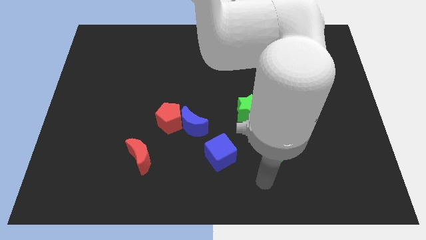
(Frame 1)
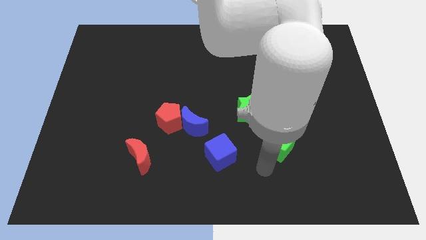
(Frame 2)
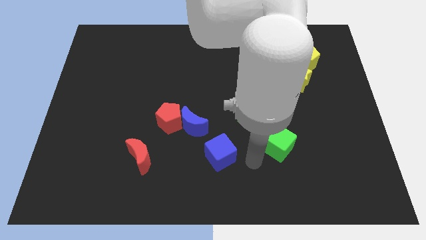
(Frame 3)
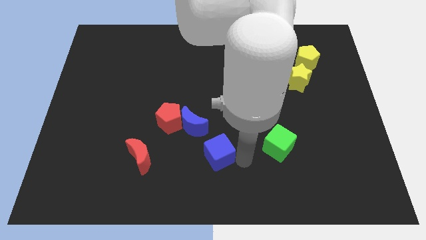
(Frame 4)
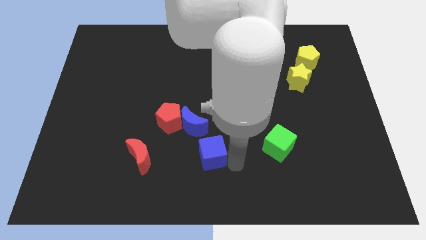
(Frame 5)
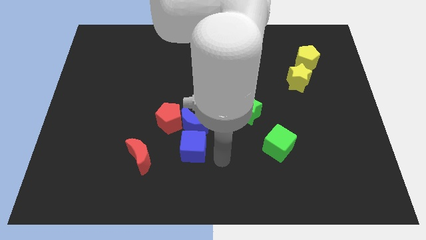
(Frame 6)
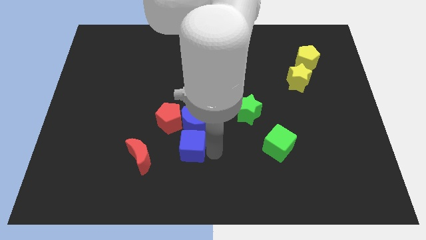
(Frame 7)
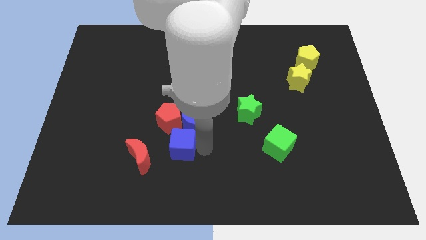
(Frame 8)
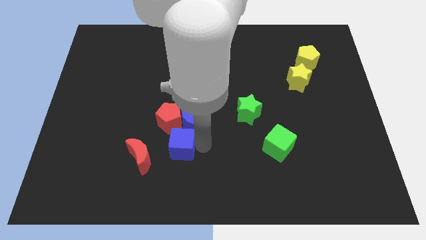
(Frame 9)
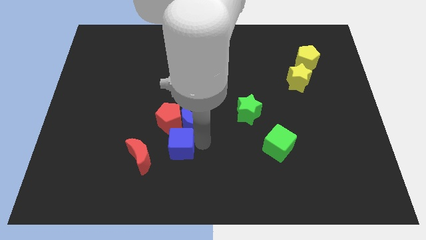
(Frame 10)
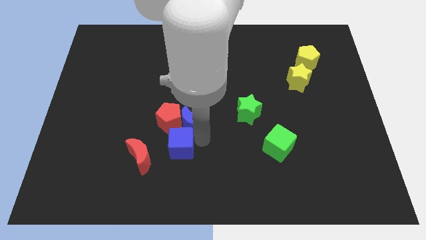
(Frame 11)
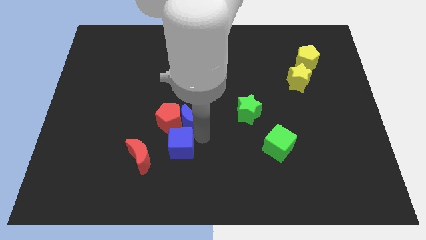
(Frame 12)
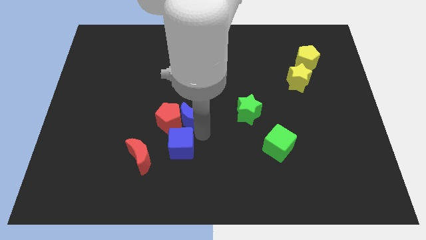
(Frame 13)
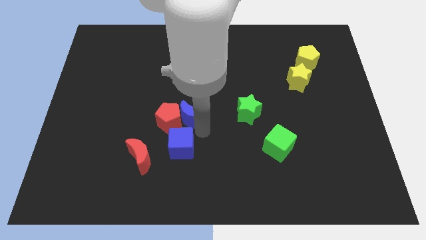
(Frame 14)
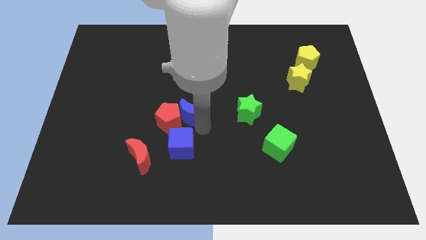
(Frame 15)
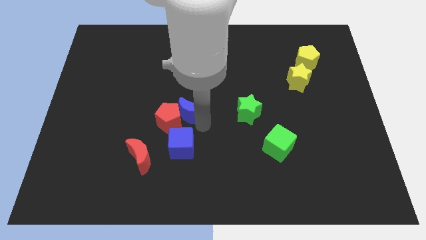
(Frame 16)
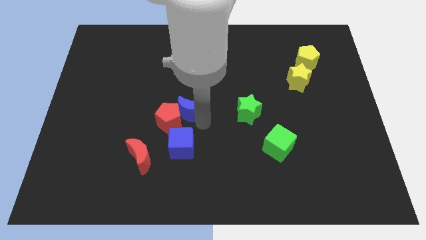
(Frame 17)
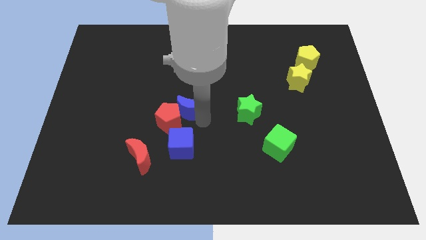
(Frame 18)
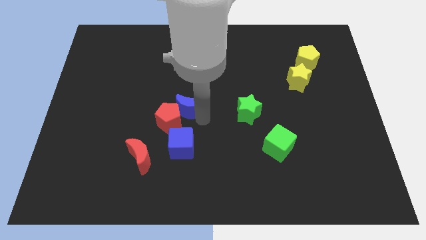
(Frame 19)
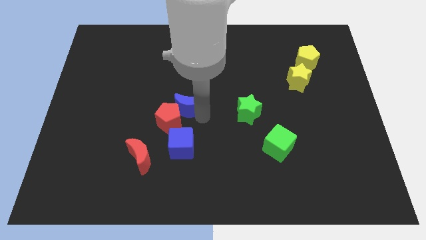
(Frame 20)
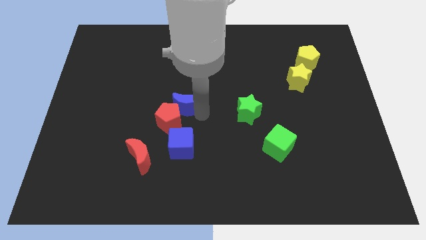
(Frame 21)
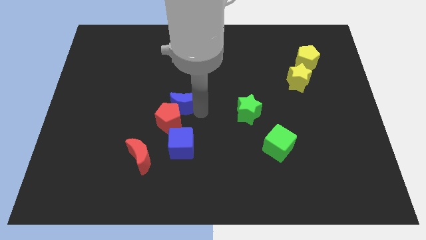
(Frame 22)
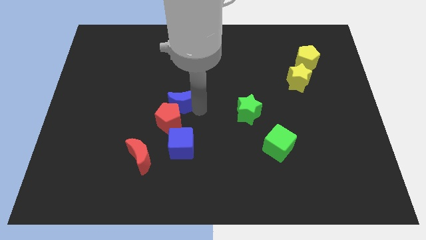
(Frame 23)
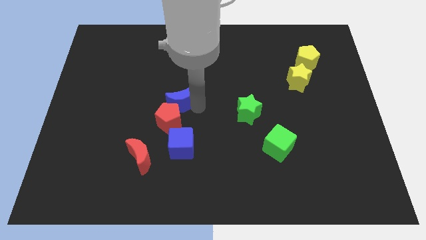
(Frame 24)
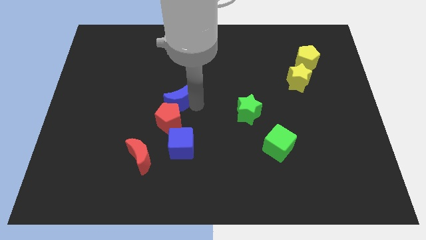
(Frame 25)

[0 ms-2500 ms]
move the blue moon upwards and then to the left a little

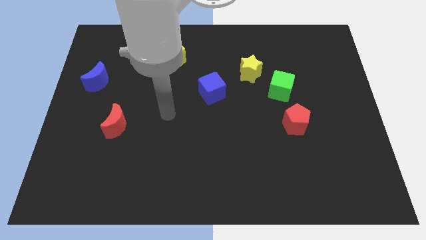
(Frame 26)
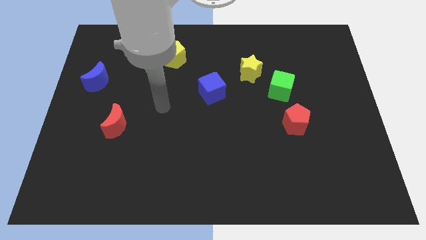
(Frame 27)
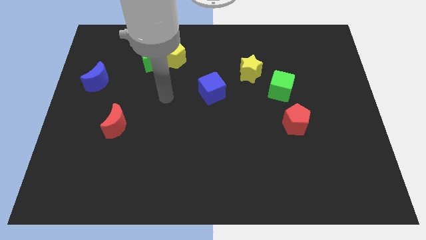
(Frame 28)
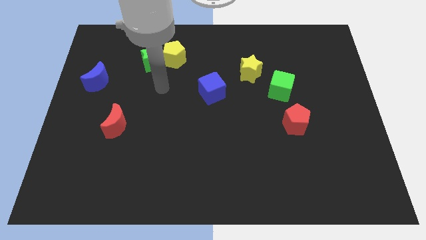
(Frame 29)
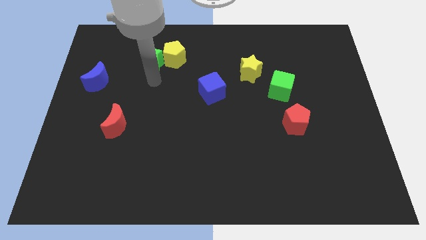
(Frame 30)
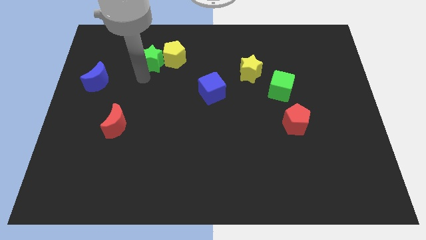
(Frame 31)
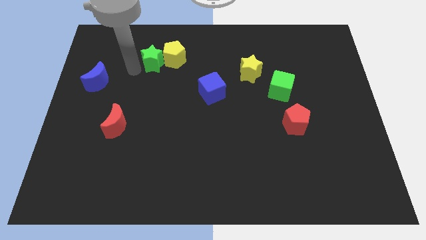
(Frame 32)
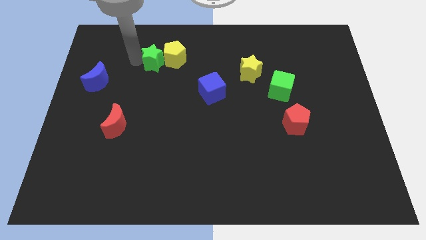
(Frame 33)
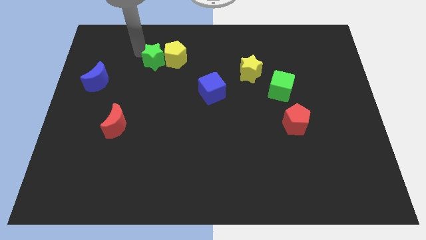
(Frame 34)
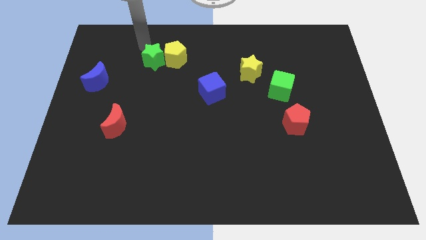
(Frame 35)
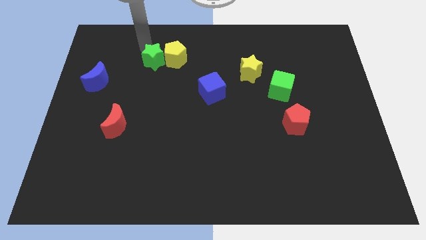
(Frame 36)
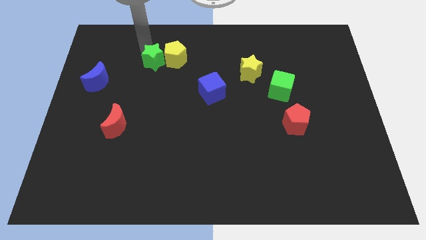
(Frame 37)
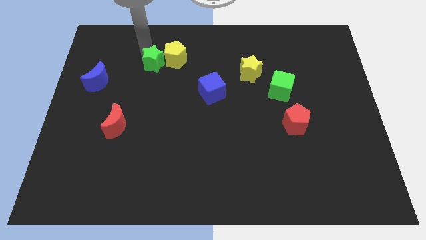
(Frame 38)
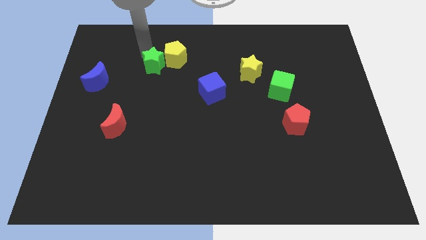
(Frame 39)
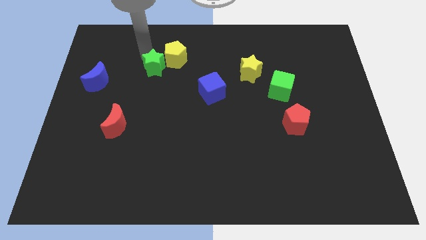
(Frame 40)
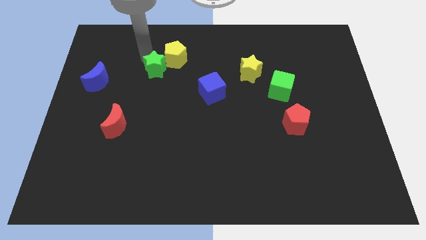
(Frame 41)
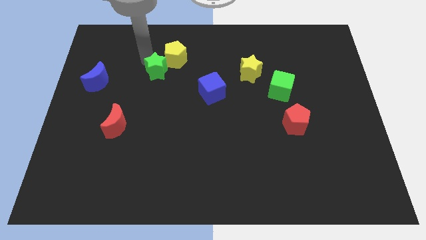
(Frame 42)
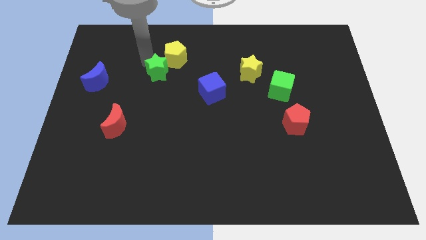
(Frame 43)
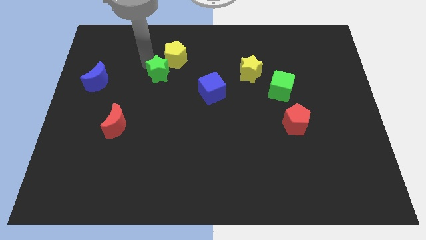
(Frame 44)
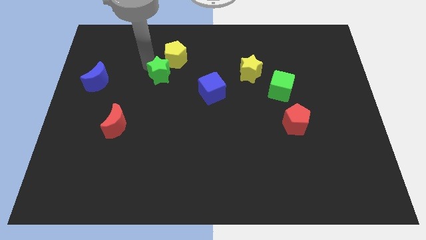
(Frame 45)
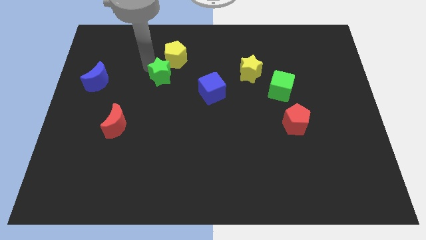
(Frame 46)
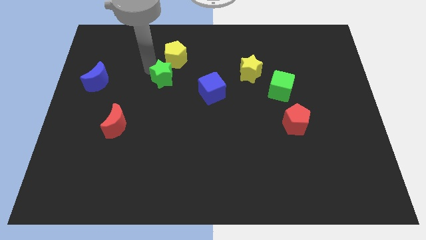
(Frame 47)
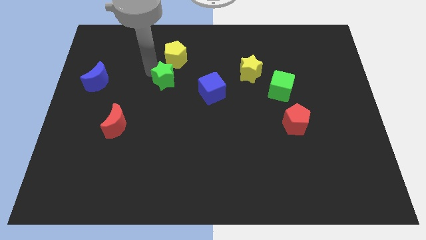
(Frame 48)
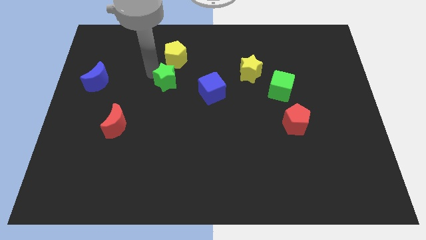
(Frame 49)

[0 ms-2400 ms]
move the green star slightly downwards and right

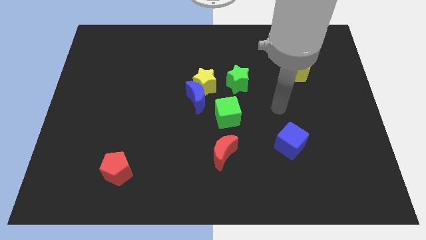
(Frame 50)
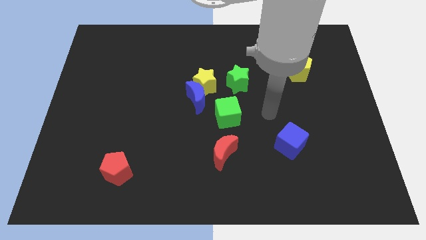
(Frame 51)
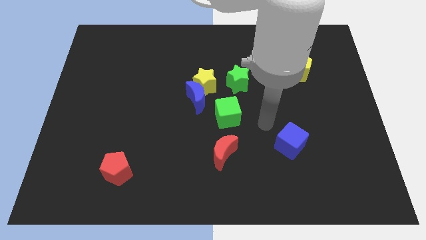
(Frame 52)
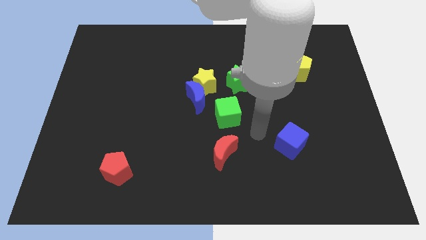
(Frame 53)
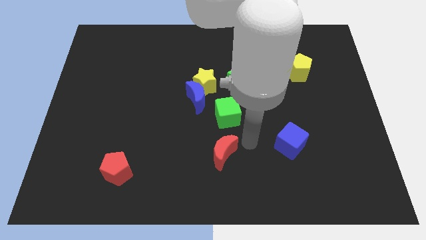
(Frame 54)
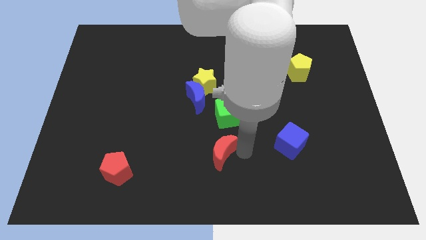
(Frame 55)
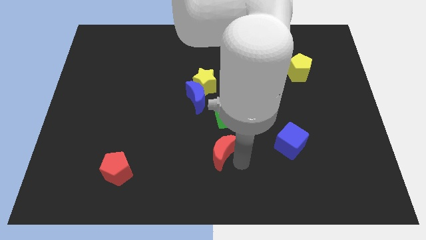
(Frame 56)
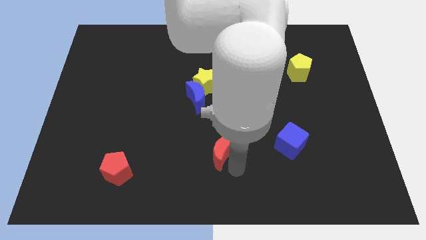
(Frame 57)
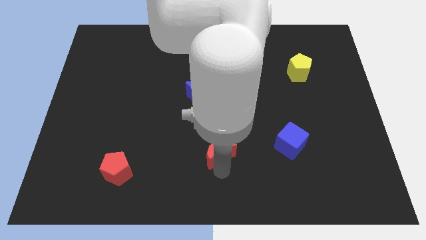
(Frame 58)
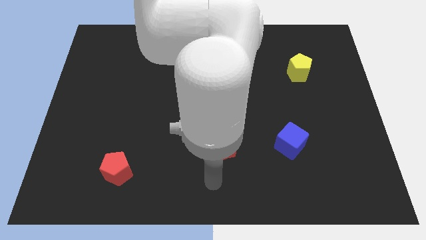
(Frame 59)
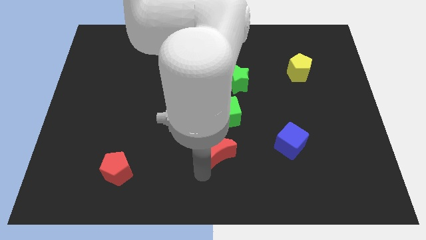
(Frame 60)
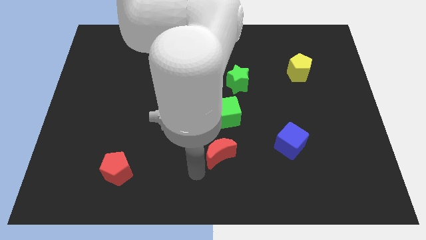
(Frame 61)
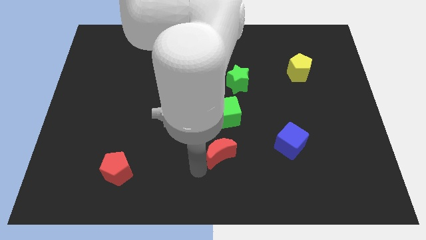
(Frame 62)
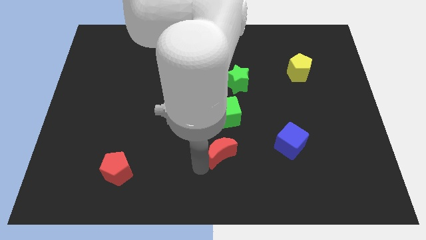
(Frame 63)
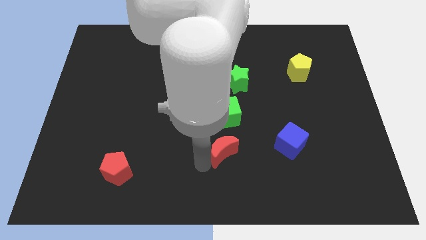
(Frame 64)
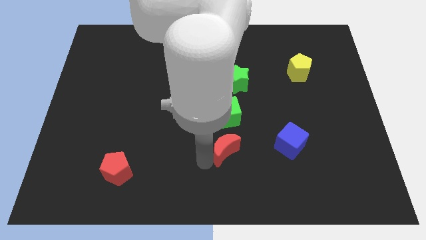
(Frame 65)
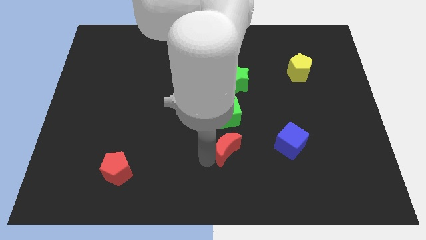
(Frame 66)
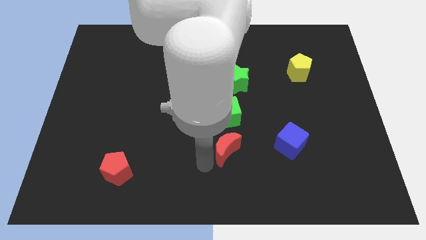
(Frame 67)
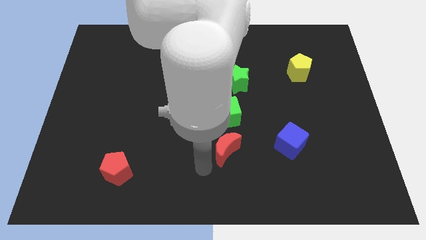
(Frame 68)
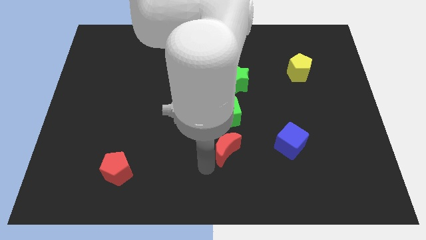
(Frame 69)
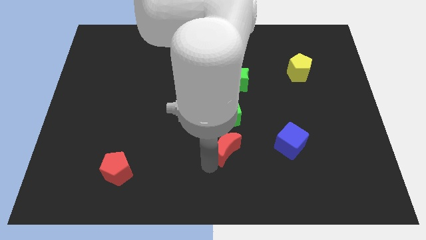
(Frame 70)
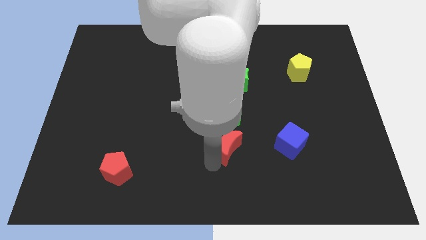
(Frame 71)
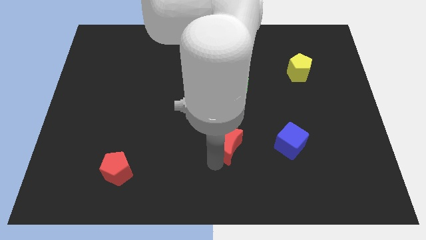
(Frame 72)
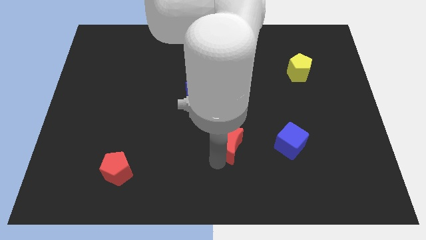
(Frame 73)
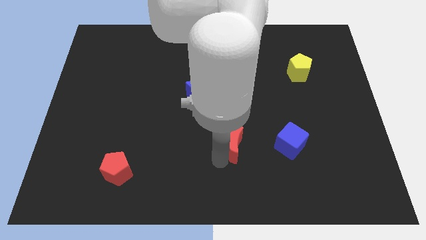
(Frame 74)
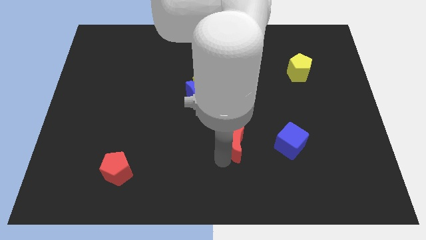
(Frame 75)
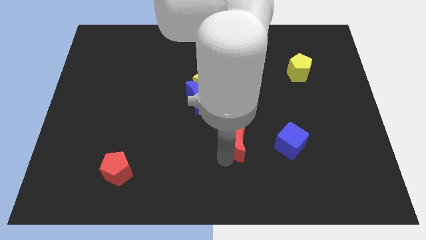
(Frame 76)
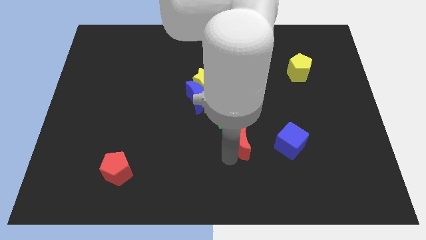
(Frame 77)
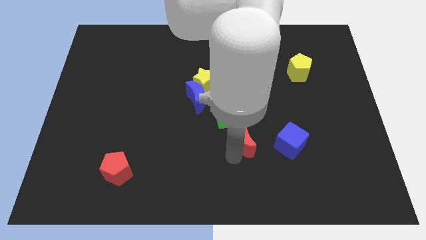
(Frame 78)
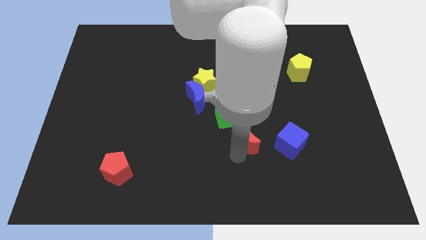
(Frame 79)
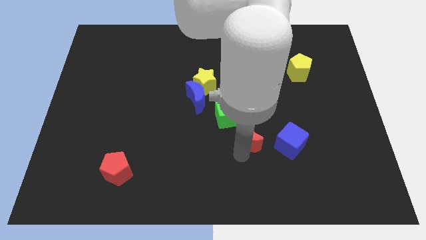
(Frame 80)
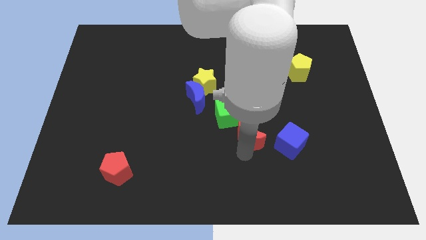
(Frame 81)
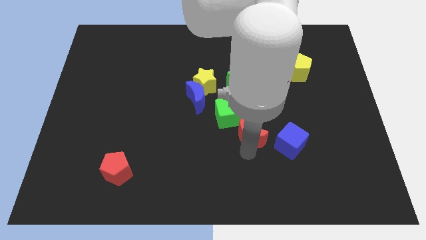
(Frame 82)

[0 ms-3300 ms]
slightly push the red moon up and to the right diagonally
